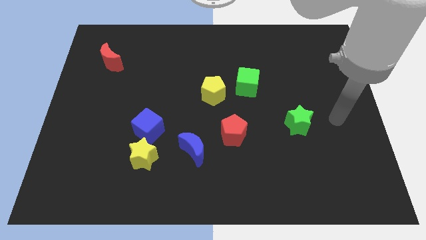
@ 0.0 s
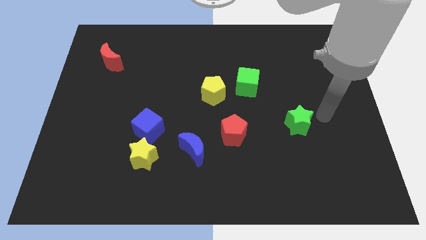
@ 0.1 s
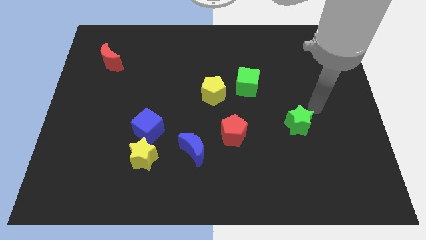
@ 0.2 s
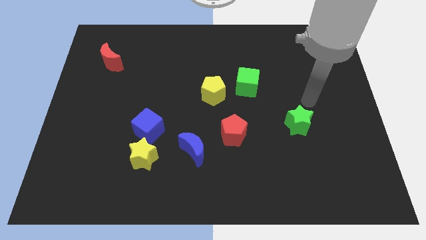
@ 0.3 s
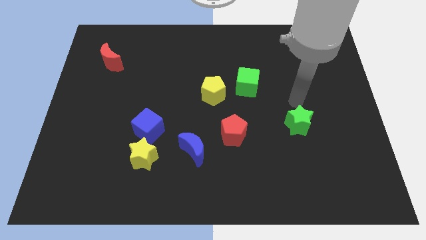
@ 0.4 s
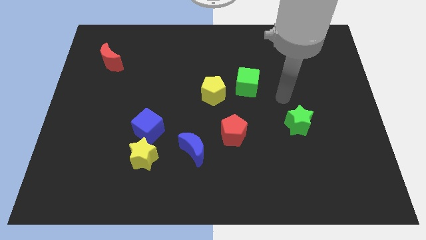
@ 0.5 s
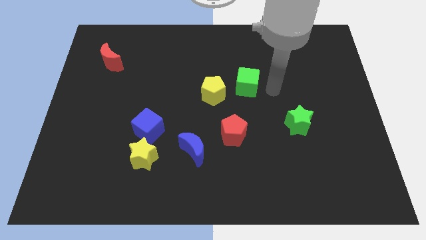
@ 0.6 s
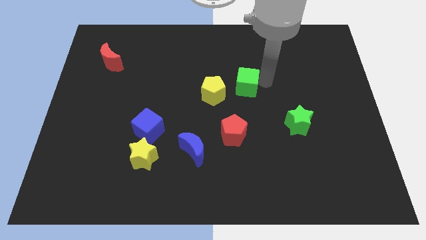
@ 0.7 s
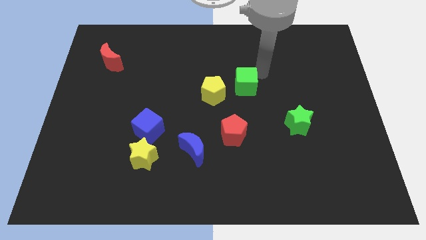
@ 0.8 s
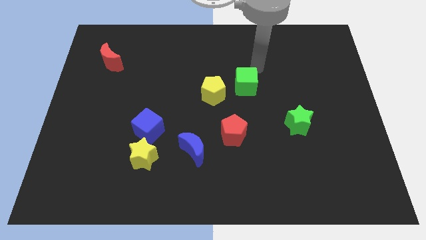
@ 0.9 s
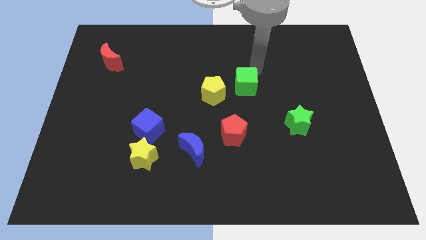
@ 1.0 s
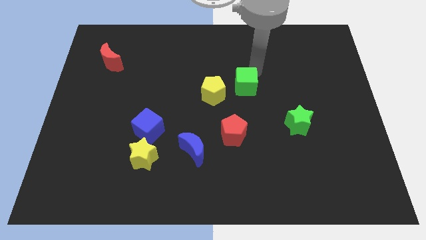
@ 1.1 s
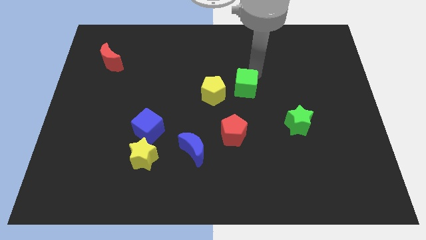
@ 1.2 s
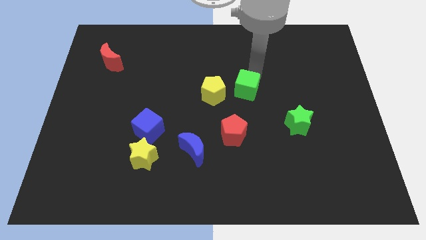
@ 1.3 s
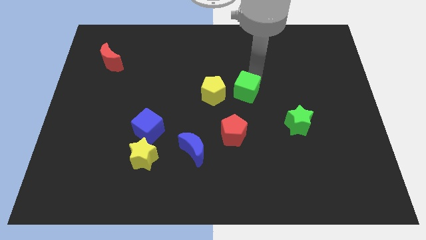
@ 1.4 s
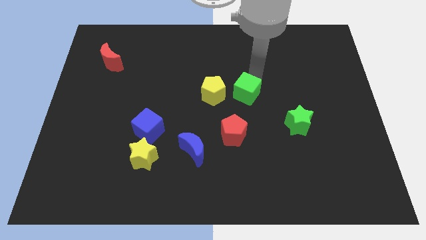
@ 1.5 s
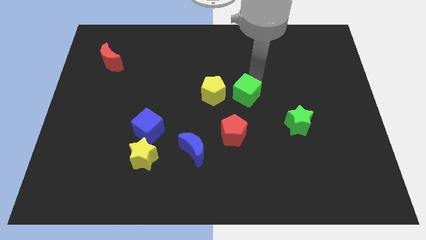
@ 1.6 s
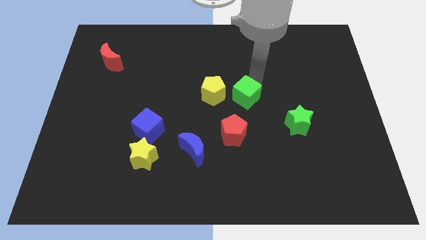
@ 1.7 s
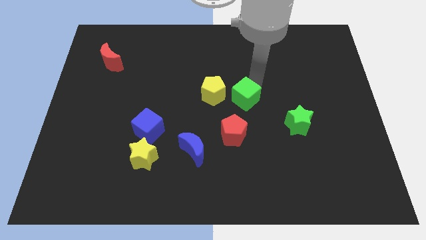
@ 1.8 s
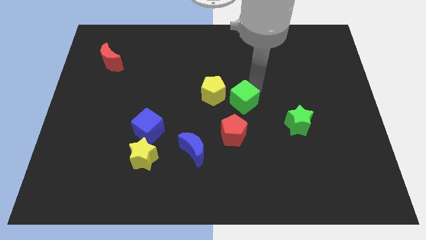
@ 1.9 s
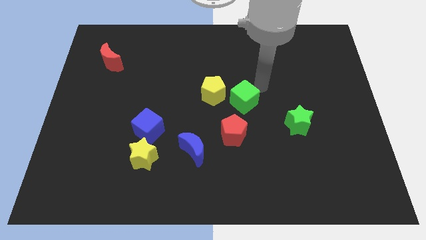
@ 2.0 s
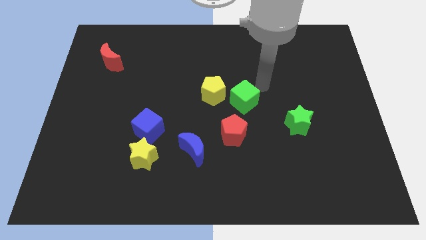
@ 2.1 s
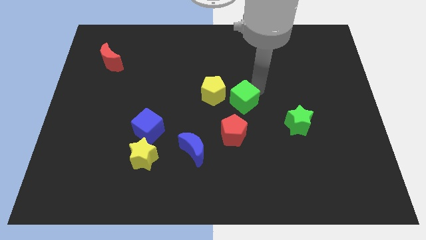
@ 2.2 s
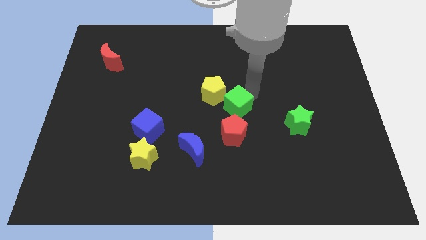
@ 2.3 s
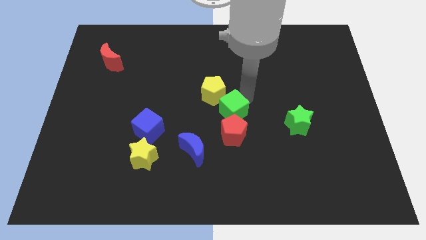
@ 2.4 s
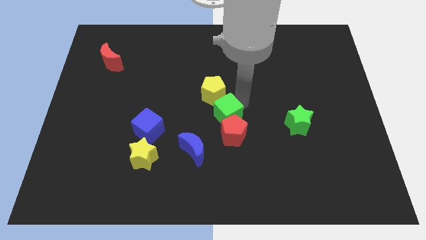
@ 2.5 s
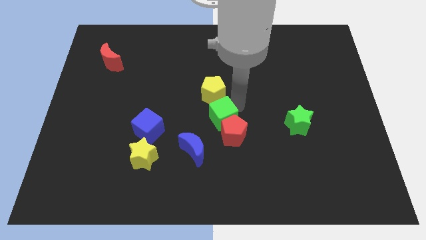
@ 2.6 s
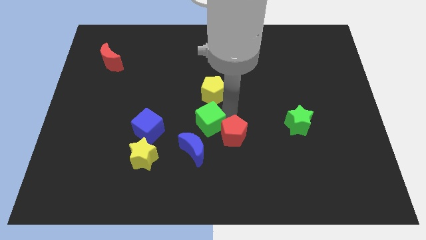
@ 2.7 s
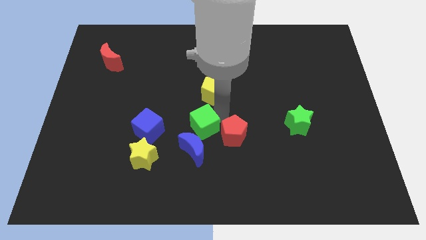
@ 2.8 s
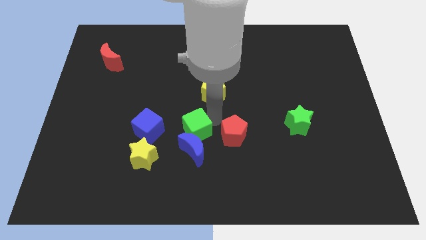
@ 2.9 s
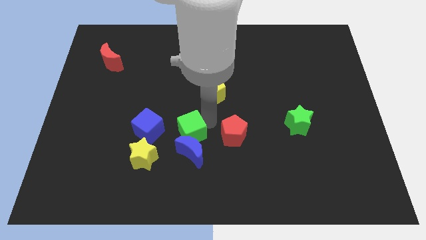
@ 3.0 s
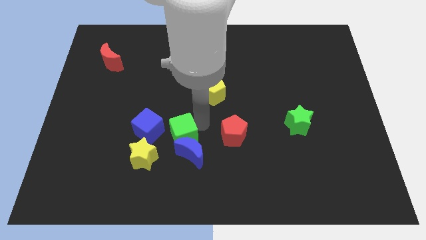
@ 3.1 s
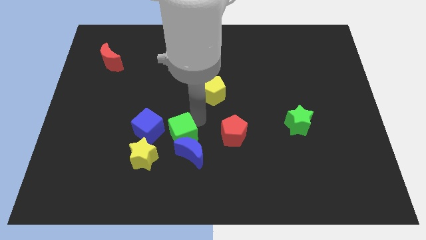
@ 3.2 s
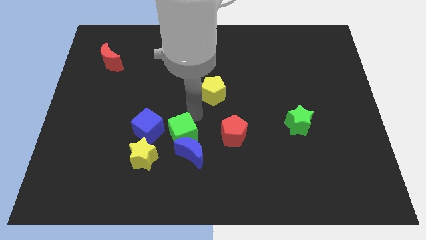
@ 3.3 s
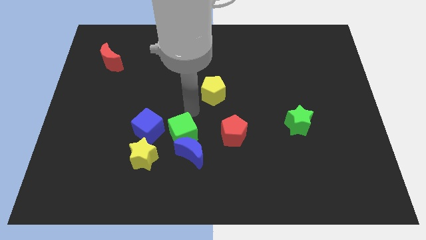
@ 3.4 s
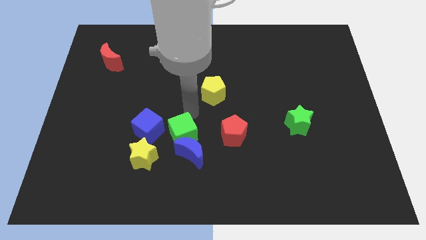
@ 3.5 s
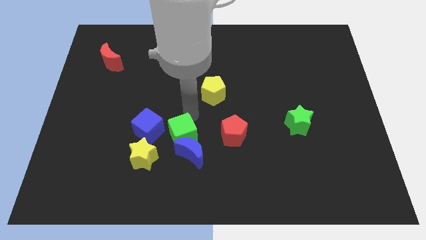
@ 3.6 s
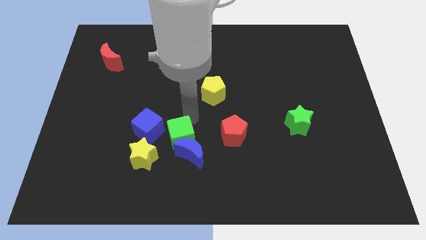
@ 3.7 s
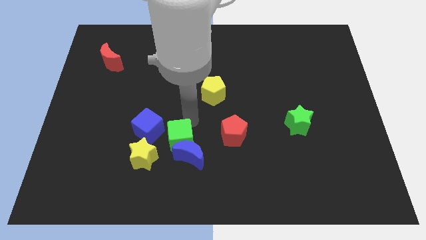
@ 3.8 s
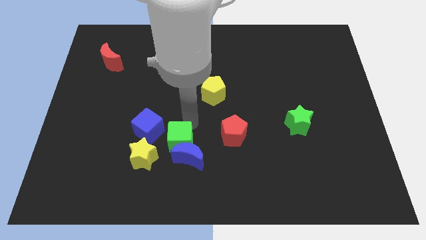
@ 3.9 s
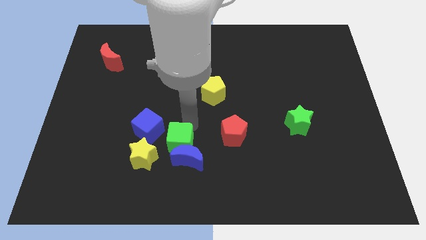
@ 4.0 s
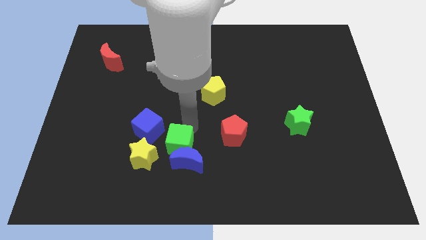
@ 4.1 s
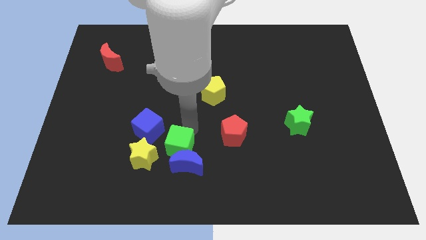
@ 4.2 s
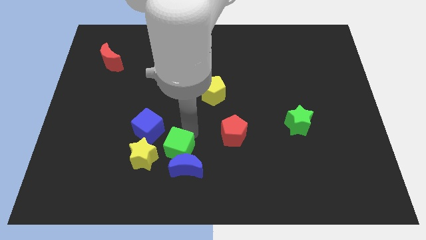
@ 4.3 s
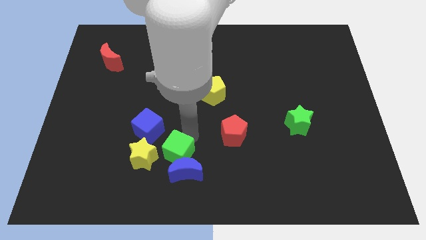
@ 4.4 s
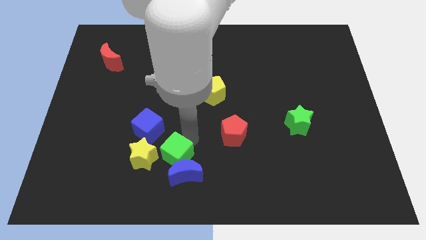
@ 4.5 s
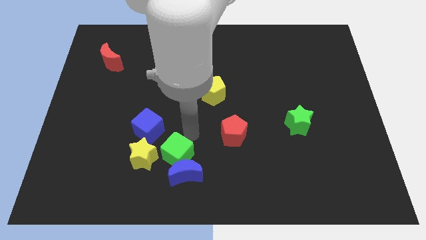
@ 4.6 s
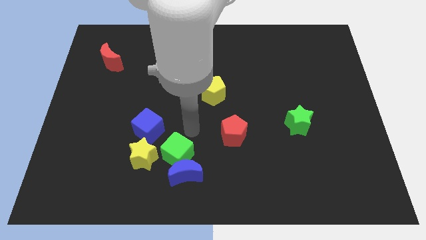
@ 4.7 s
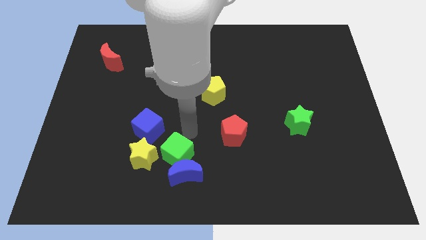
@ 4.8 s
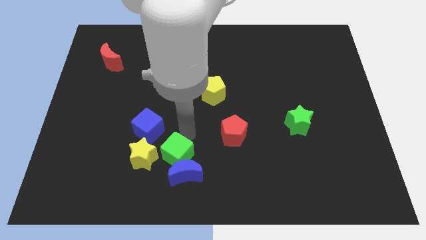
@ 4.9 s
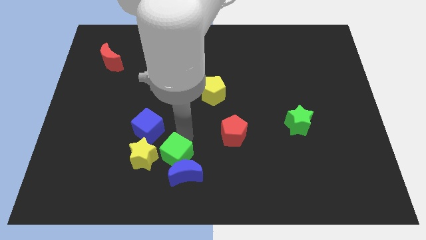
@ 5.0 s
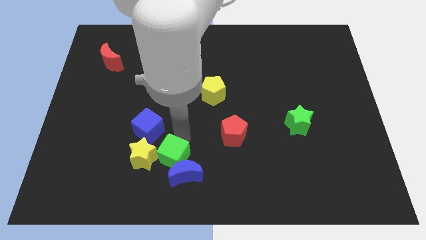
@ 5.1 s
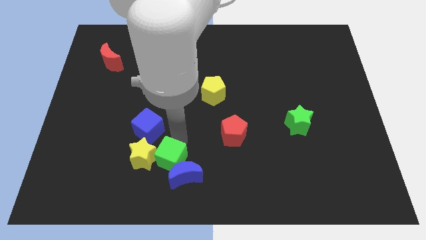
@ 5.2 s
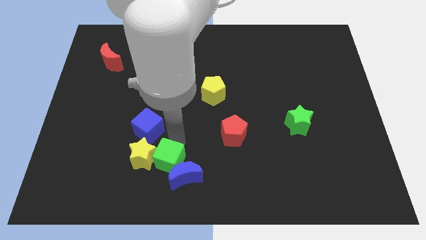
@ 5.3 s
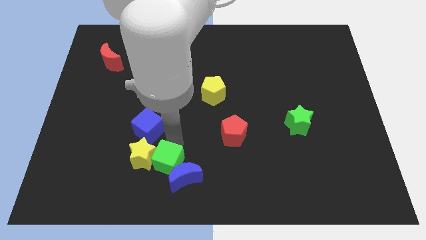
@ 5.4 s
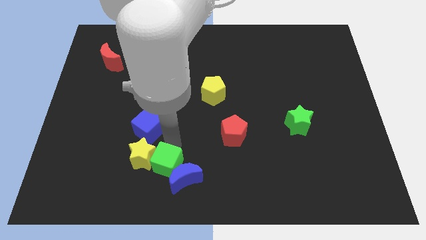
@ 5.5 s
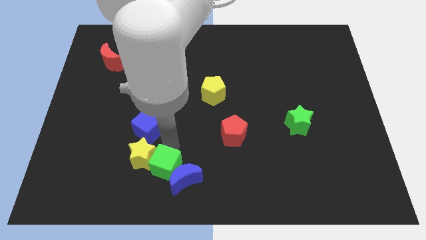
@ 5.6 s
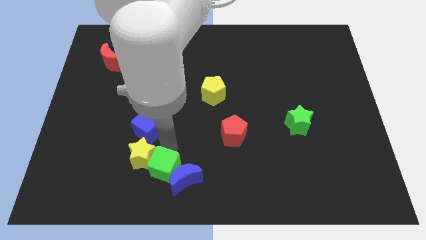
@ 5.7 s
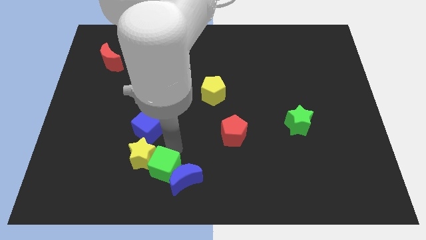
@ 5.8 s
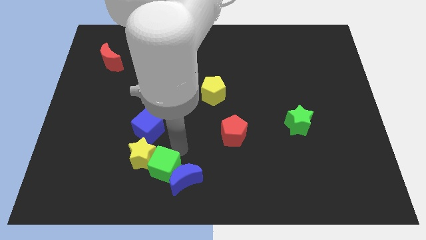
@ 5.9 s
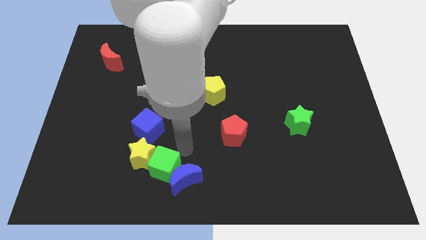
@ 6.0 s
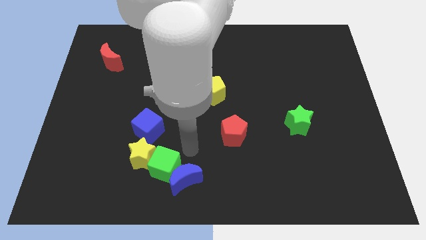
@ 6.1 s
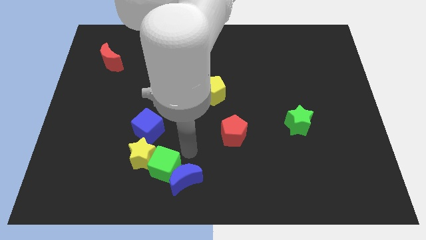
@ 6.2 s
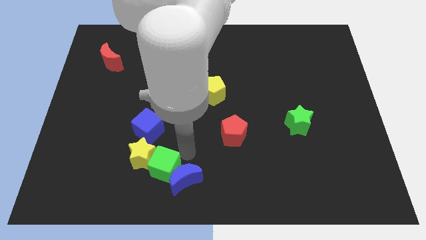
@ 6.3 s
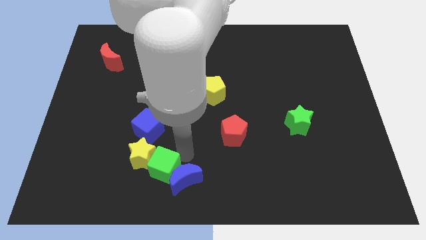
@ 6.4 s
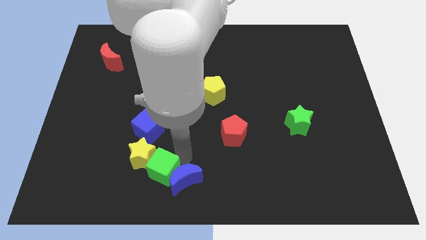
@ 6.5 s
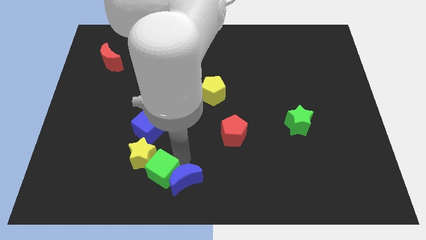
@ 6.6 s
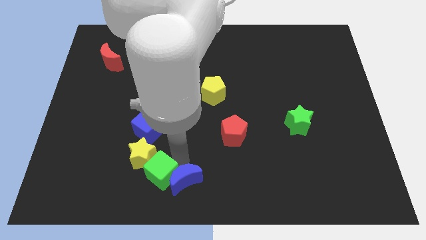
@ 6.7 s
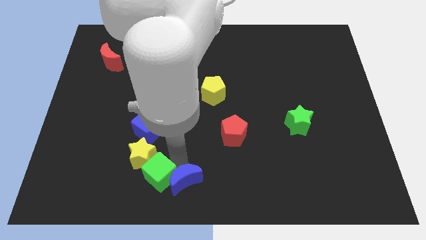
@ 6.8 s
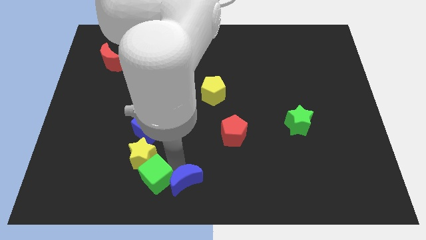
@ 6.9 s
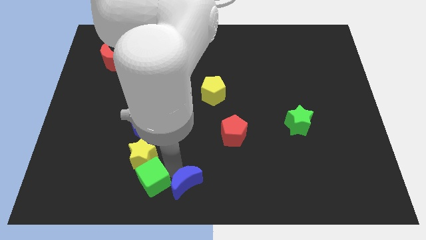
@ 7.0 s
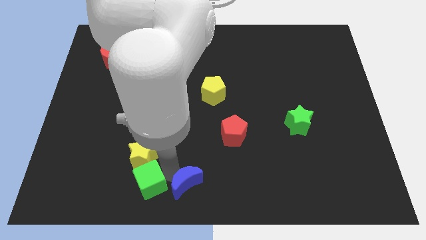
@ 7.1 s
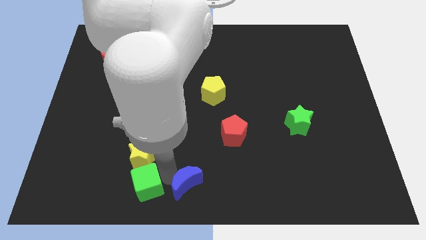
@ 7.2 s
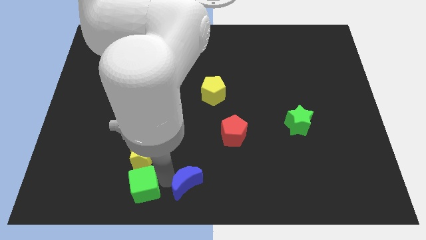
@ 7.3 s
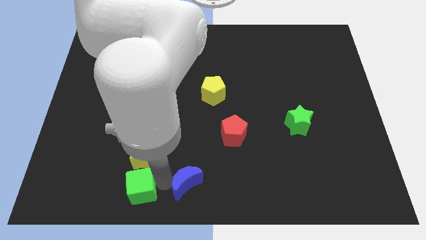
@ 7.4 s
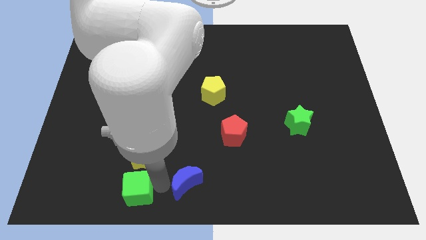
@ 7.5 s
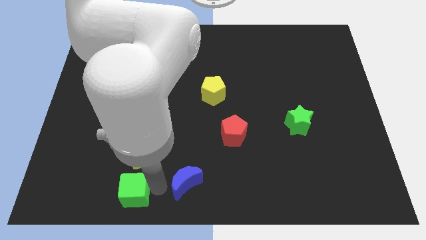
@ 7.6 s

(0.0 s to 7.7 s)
slide the green cube diagonally down and to the left of the yellow star
